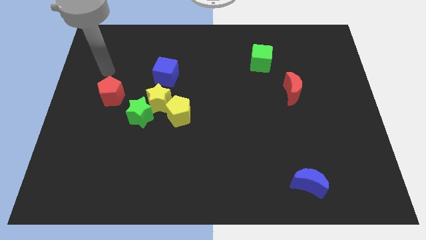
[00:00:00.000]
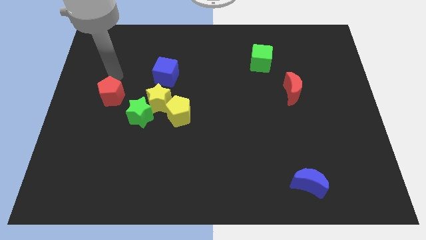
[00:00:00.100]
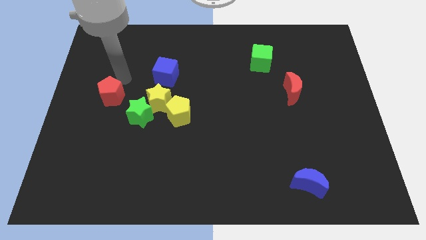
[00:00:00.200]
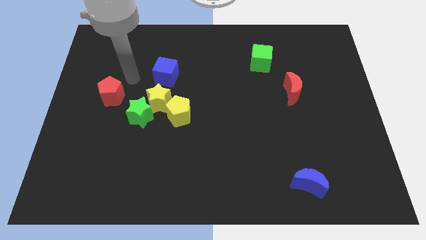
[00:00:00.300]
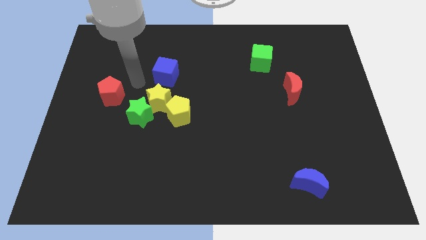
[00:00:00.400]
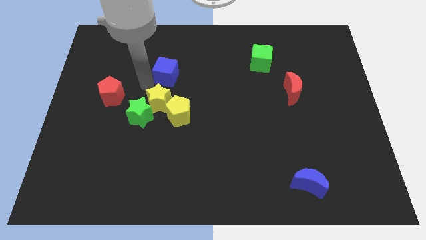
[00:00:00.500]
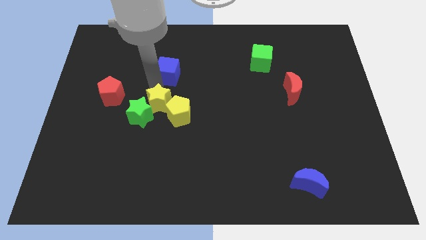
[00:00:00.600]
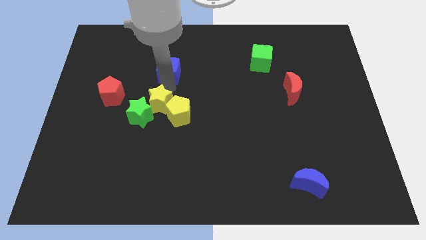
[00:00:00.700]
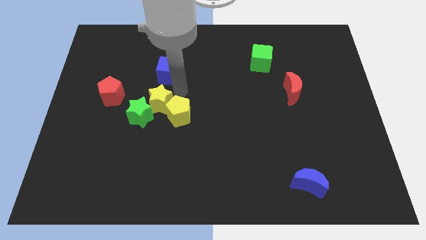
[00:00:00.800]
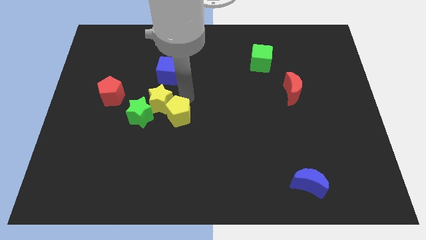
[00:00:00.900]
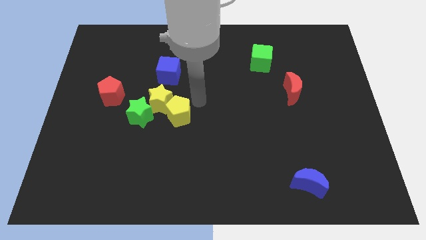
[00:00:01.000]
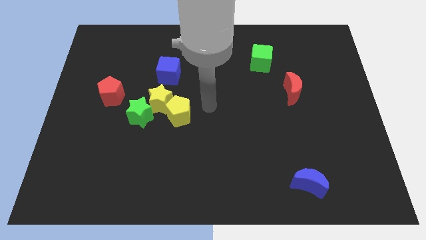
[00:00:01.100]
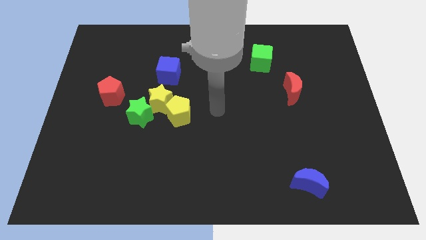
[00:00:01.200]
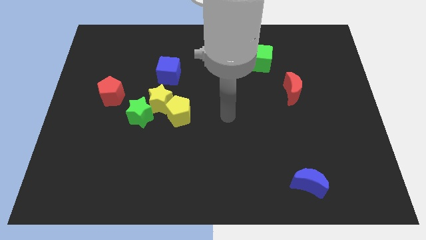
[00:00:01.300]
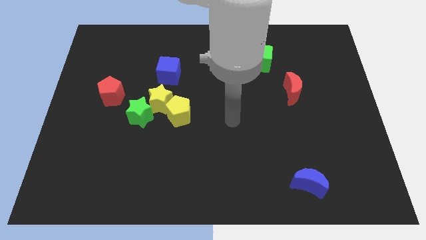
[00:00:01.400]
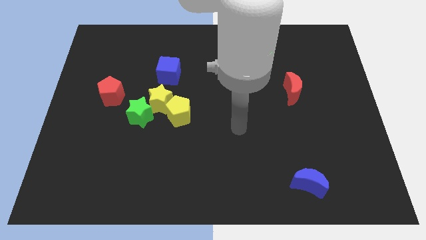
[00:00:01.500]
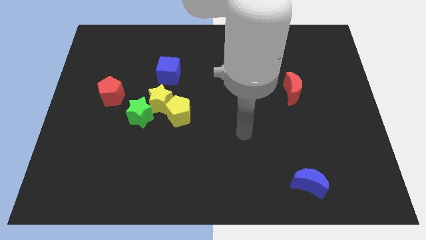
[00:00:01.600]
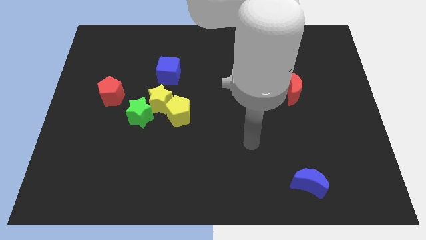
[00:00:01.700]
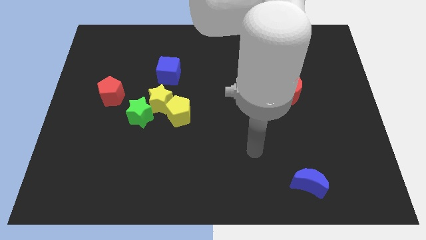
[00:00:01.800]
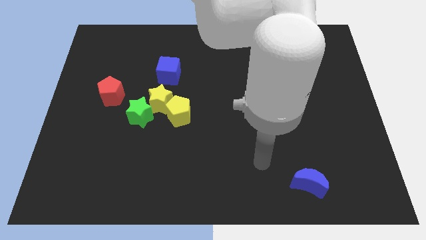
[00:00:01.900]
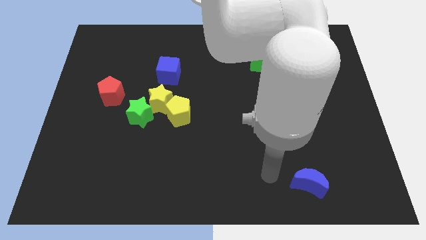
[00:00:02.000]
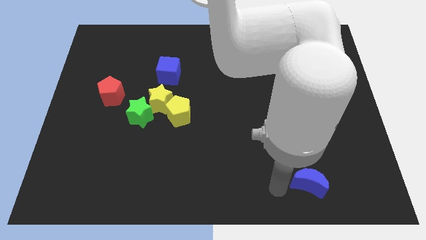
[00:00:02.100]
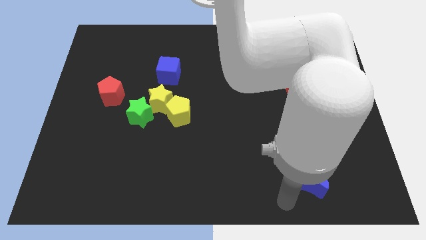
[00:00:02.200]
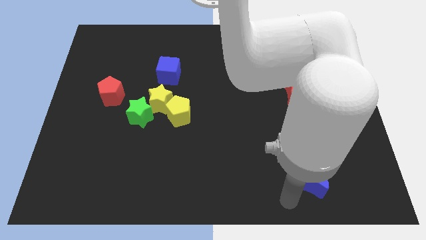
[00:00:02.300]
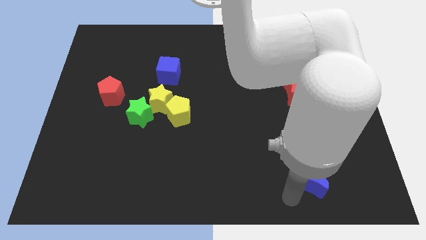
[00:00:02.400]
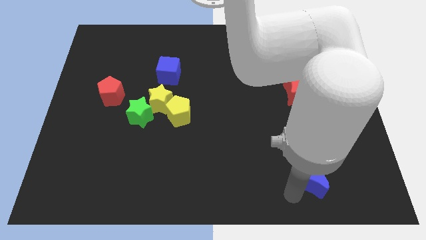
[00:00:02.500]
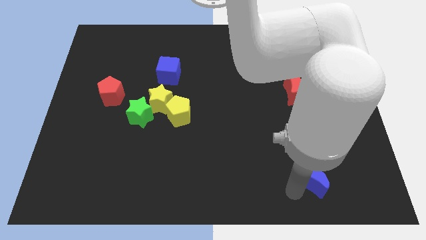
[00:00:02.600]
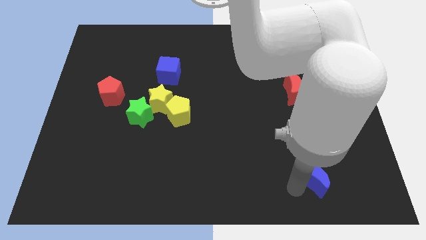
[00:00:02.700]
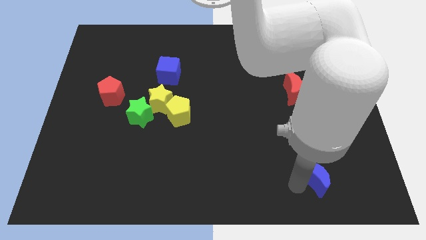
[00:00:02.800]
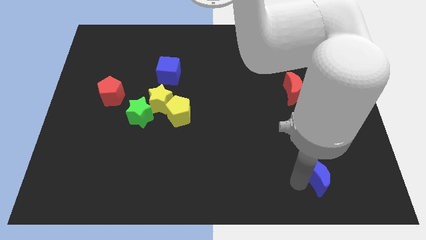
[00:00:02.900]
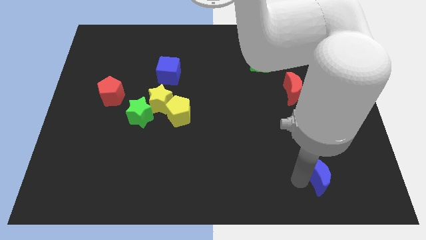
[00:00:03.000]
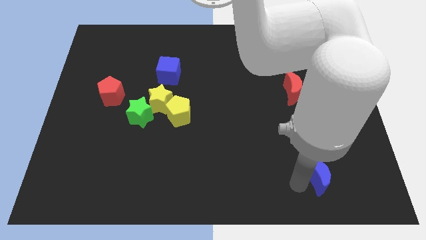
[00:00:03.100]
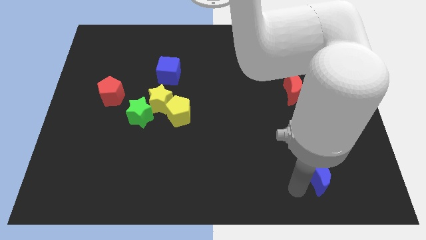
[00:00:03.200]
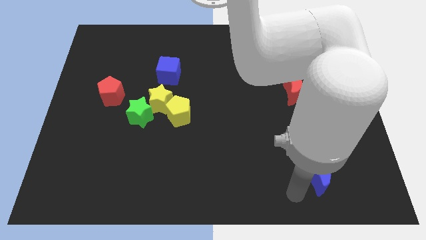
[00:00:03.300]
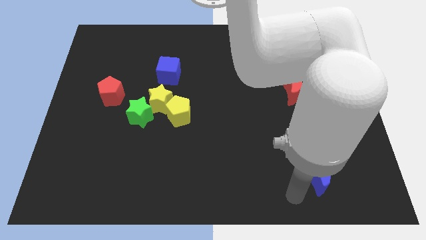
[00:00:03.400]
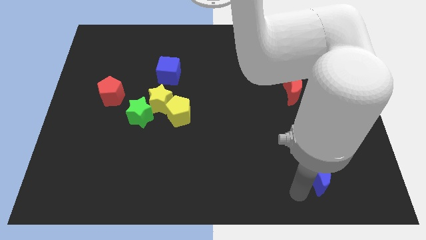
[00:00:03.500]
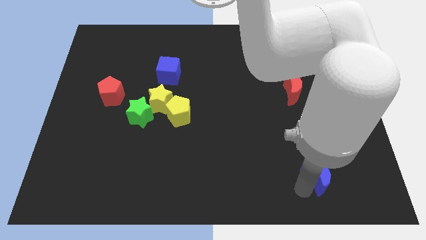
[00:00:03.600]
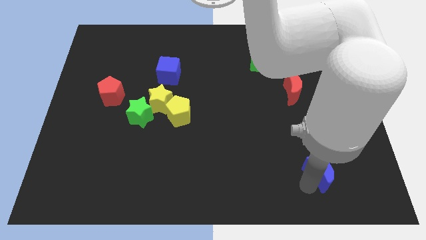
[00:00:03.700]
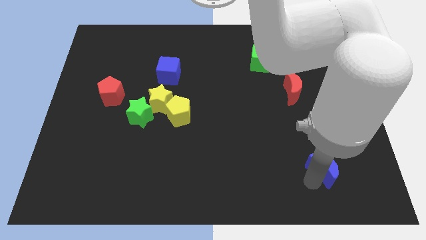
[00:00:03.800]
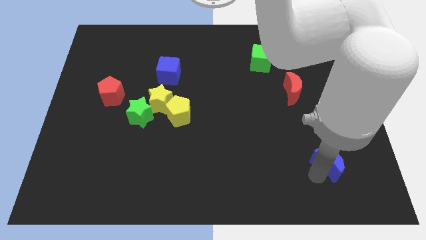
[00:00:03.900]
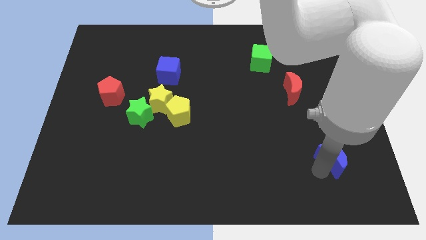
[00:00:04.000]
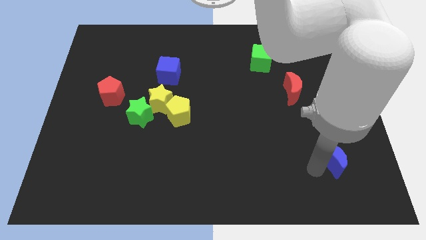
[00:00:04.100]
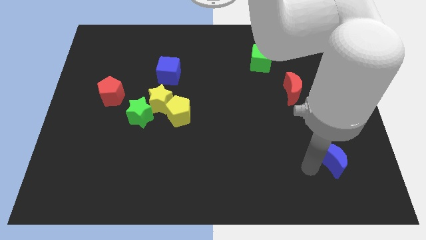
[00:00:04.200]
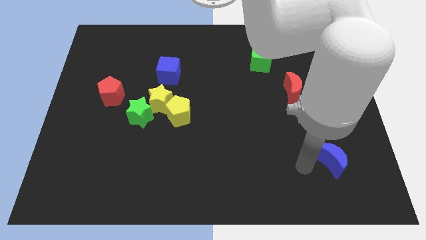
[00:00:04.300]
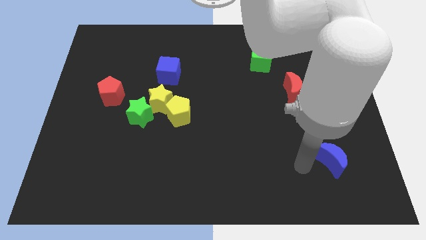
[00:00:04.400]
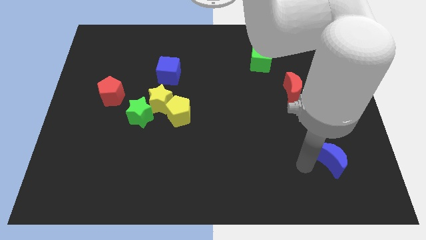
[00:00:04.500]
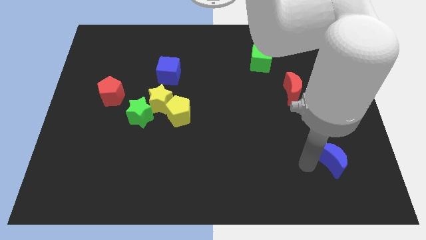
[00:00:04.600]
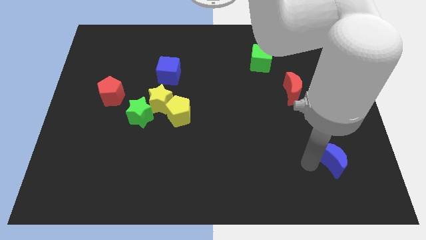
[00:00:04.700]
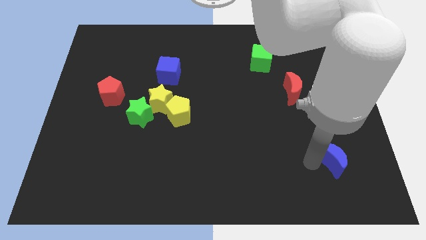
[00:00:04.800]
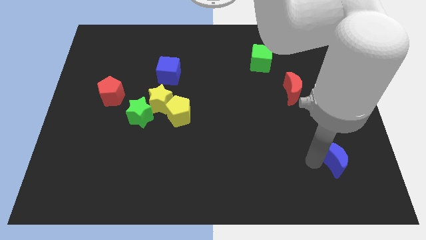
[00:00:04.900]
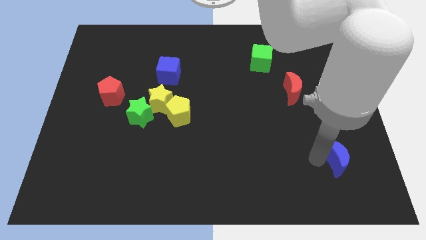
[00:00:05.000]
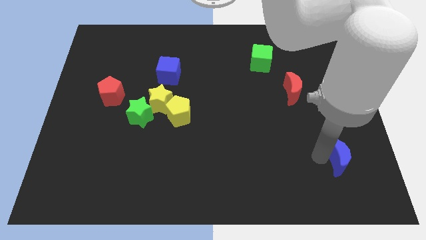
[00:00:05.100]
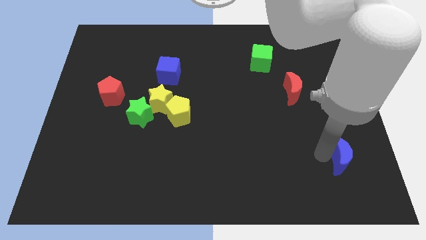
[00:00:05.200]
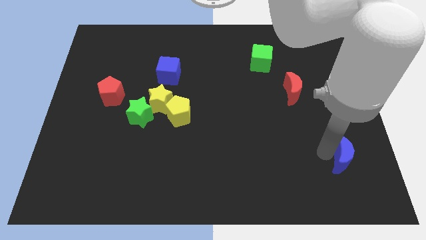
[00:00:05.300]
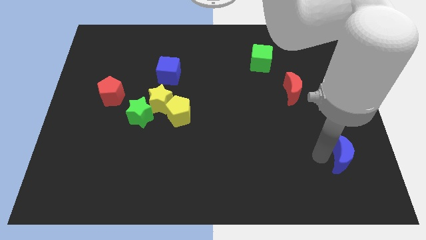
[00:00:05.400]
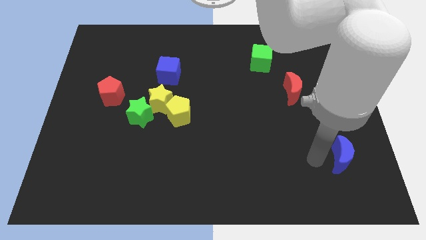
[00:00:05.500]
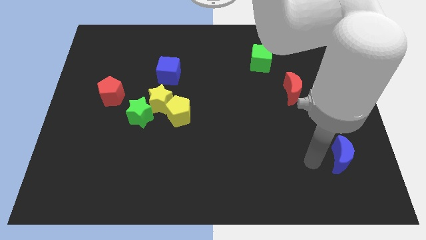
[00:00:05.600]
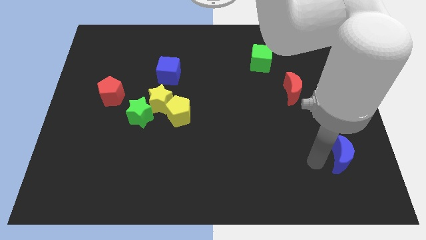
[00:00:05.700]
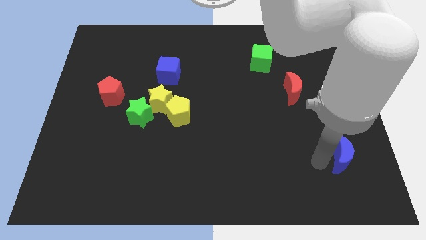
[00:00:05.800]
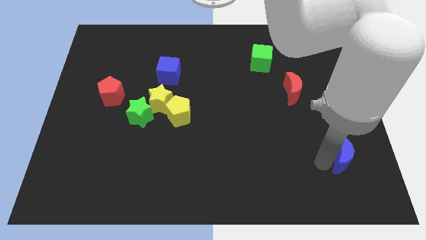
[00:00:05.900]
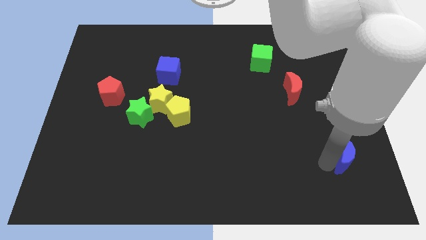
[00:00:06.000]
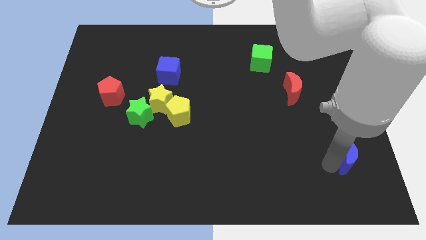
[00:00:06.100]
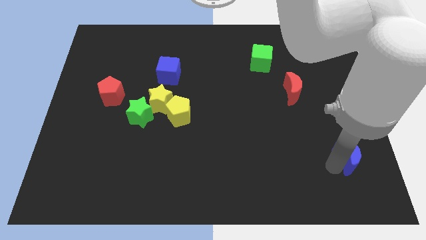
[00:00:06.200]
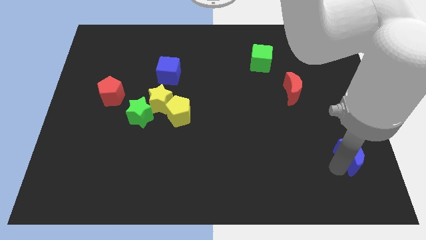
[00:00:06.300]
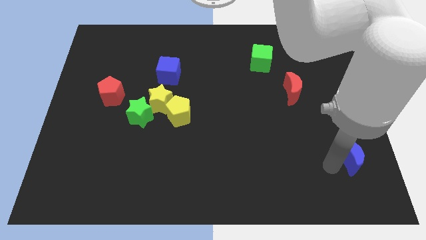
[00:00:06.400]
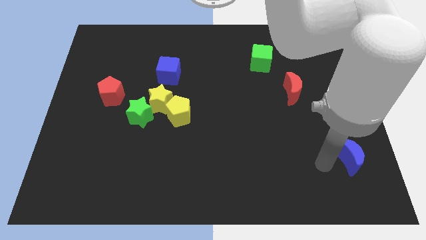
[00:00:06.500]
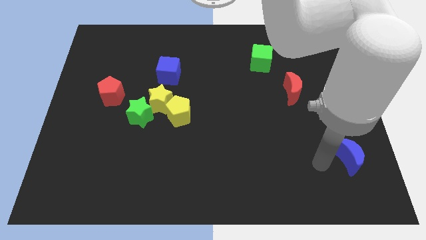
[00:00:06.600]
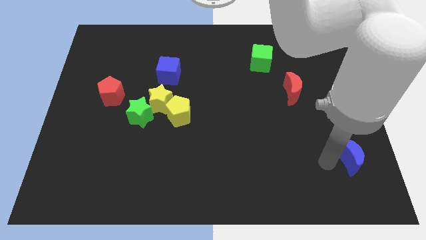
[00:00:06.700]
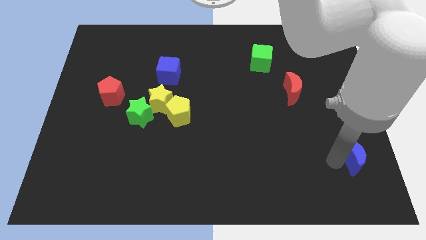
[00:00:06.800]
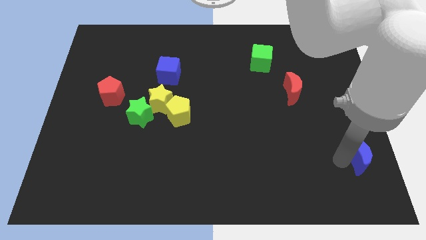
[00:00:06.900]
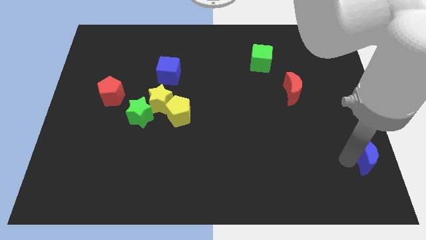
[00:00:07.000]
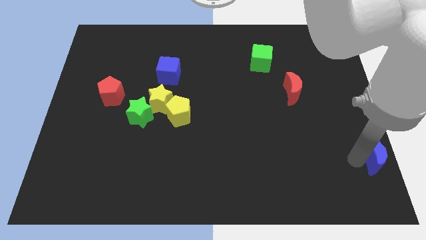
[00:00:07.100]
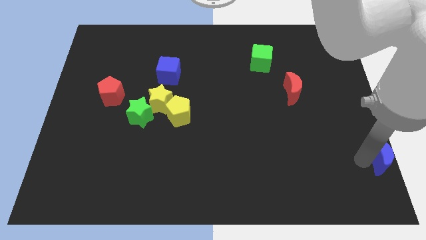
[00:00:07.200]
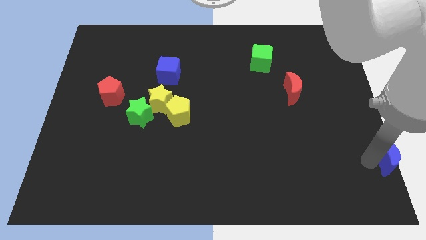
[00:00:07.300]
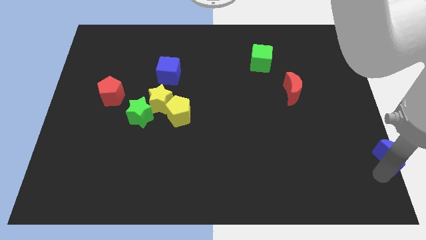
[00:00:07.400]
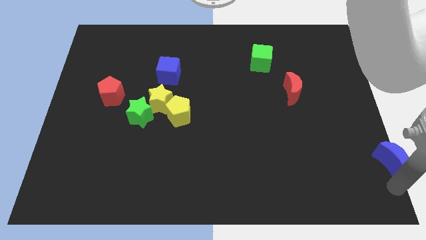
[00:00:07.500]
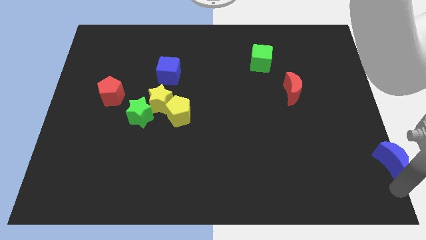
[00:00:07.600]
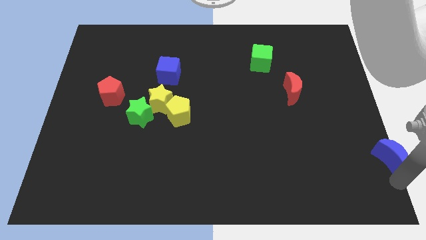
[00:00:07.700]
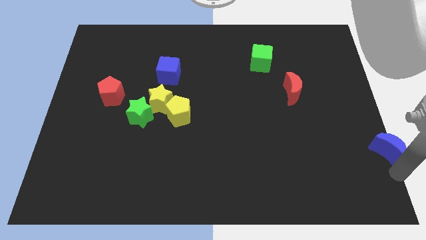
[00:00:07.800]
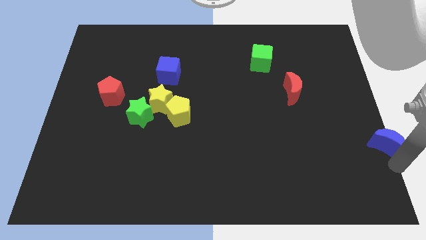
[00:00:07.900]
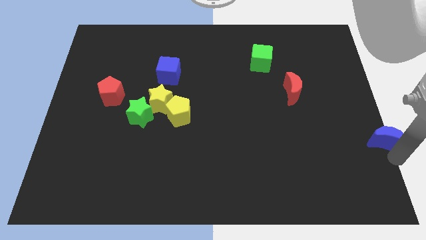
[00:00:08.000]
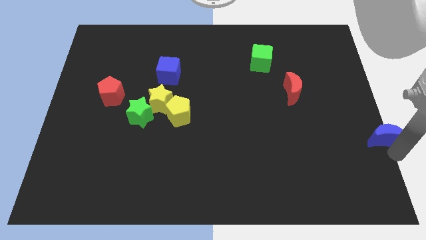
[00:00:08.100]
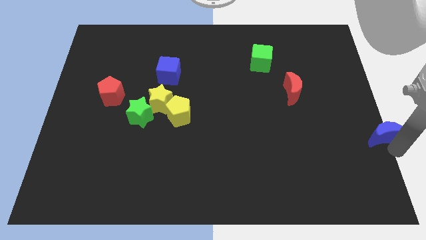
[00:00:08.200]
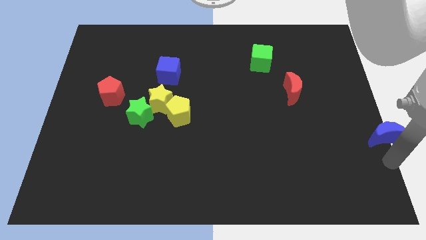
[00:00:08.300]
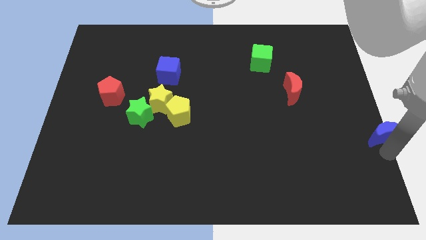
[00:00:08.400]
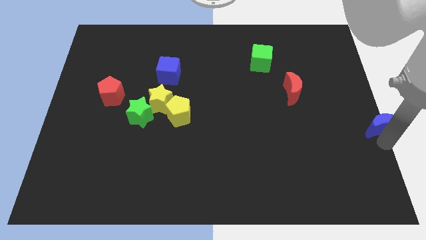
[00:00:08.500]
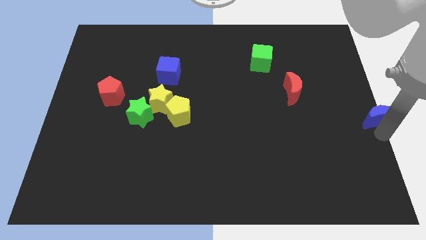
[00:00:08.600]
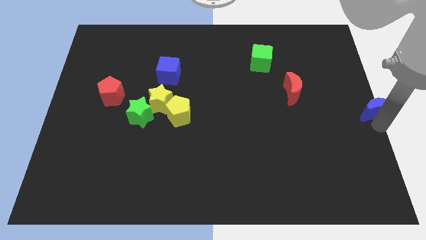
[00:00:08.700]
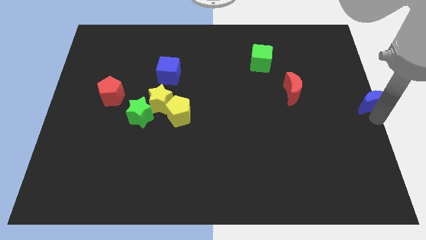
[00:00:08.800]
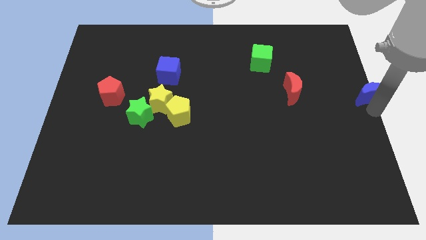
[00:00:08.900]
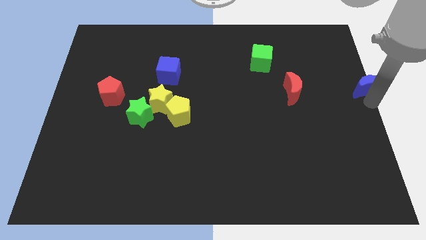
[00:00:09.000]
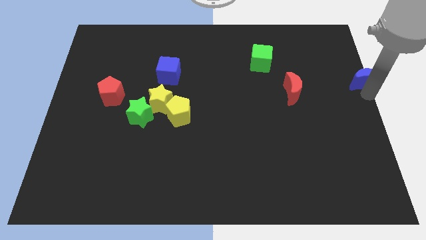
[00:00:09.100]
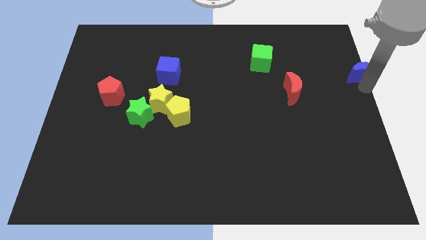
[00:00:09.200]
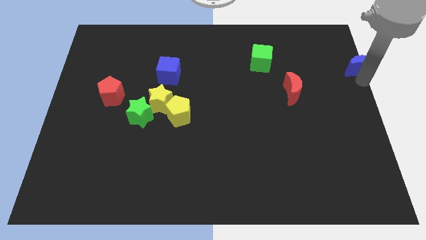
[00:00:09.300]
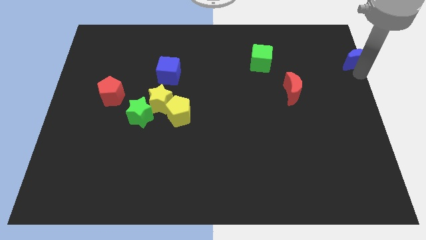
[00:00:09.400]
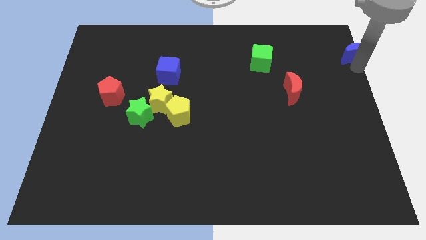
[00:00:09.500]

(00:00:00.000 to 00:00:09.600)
slide the blue moon to the top right of the board
